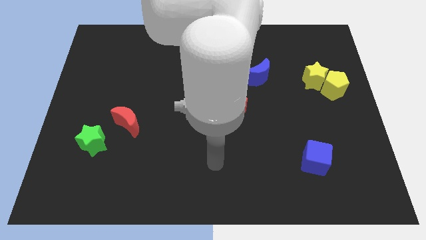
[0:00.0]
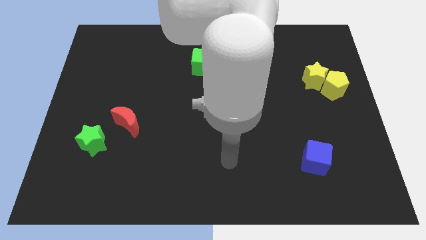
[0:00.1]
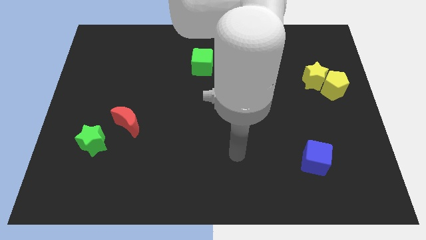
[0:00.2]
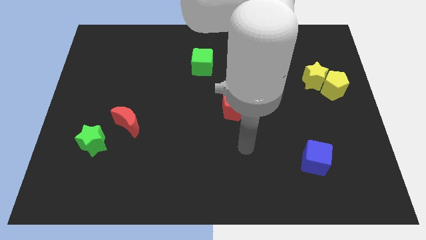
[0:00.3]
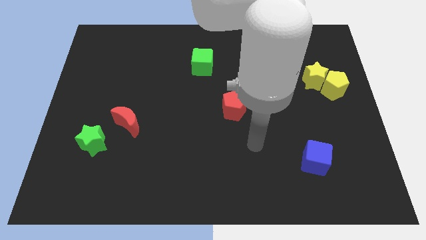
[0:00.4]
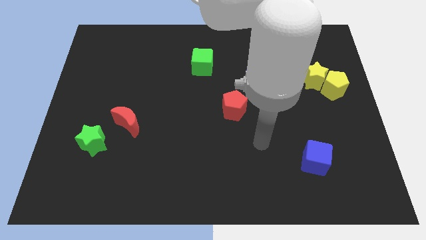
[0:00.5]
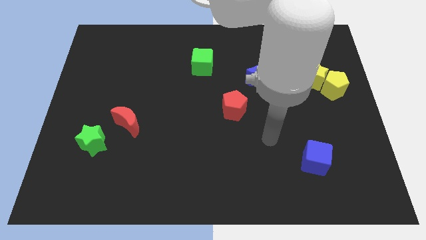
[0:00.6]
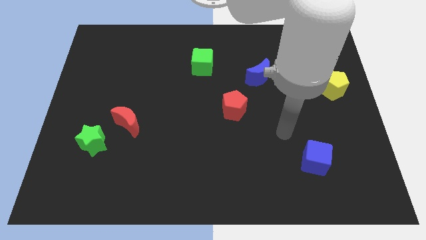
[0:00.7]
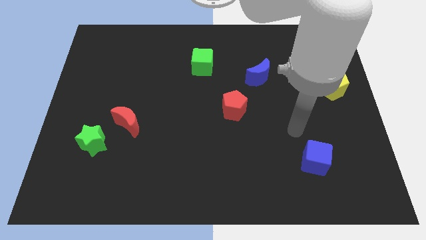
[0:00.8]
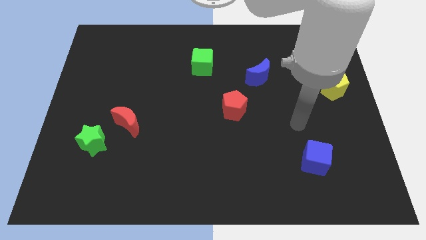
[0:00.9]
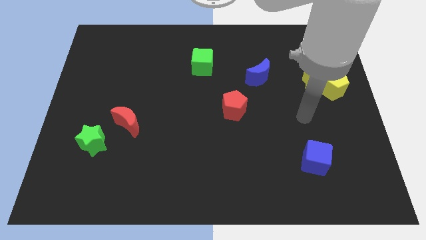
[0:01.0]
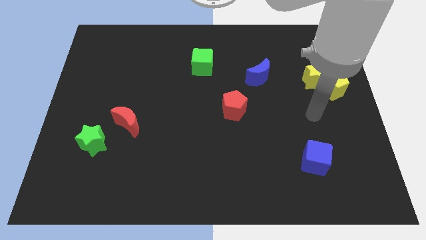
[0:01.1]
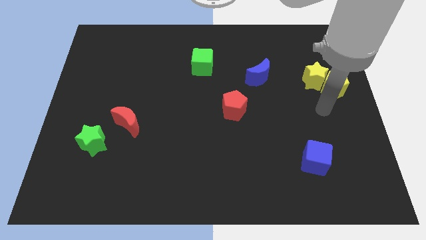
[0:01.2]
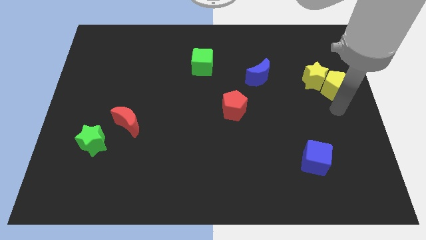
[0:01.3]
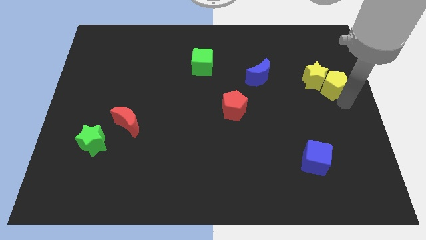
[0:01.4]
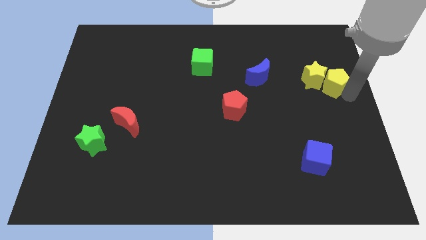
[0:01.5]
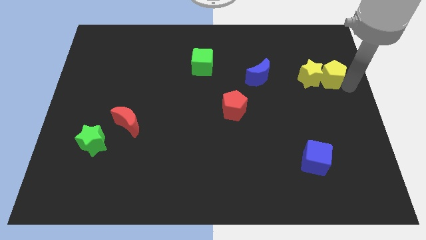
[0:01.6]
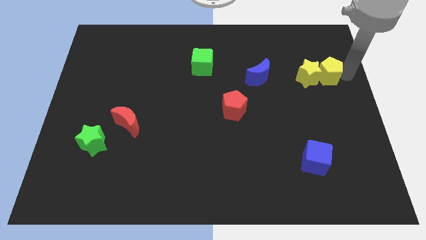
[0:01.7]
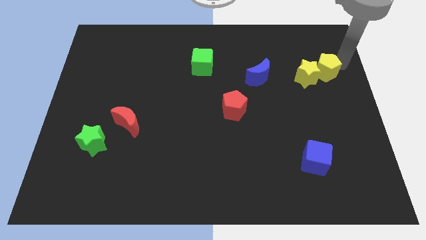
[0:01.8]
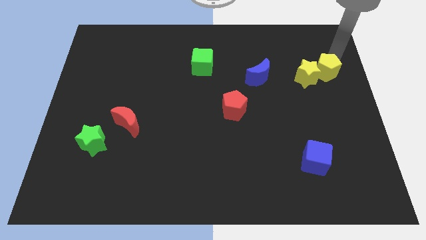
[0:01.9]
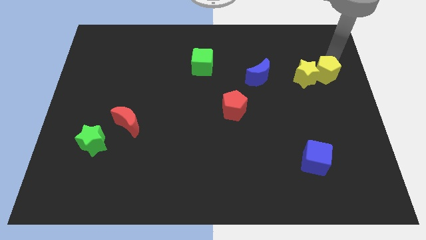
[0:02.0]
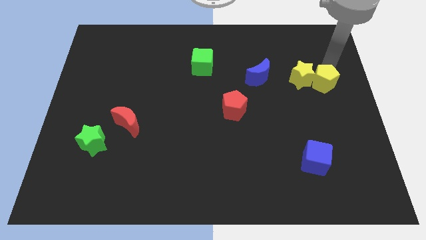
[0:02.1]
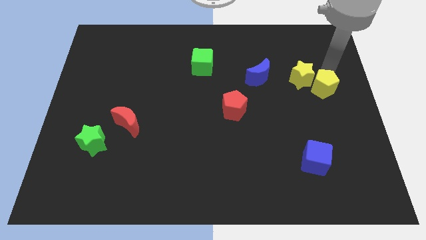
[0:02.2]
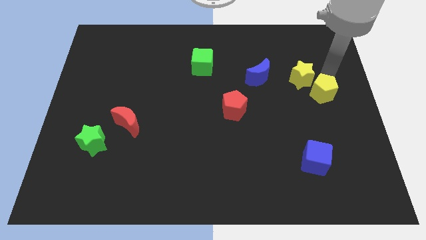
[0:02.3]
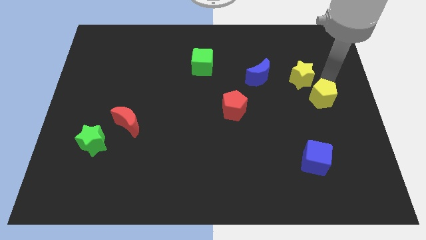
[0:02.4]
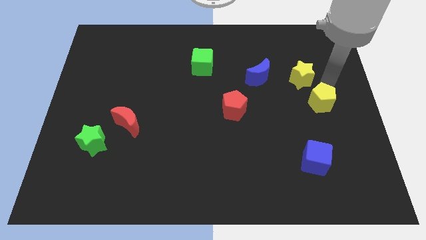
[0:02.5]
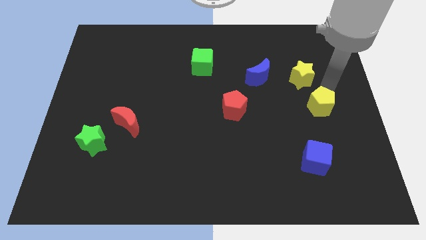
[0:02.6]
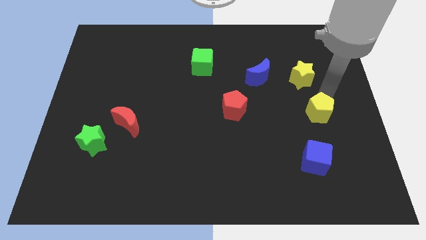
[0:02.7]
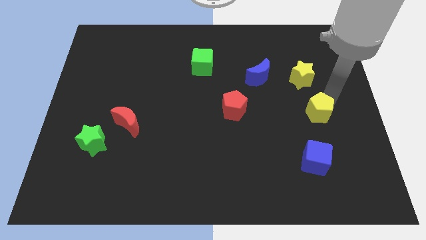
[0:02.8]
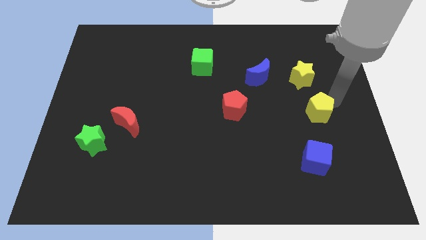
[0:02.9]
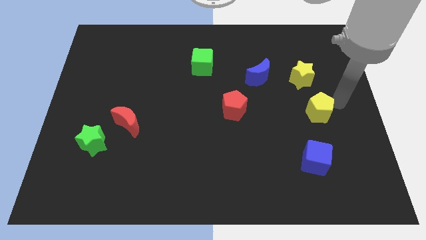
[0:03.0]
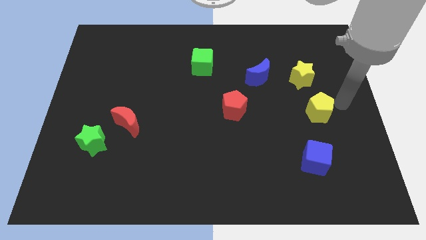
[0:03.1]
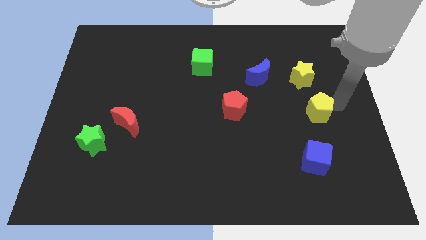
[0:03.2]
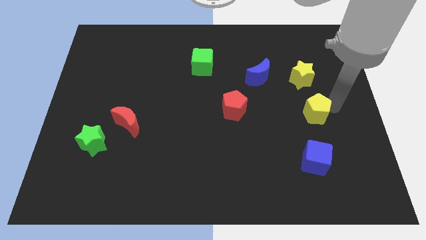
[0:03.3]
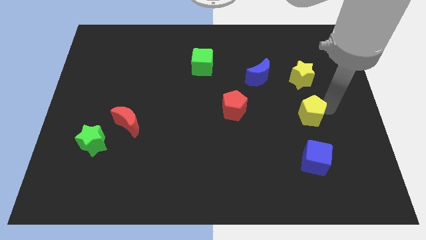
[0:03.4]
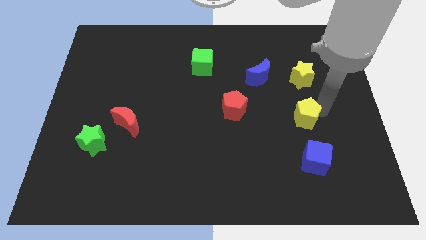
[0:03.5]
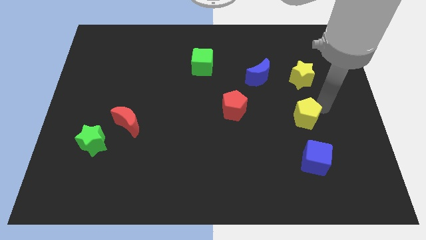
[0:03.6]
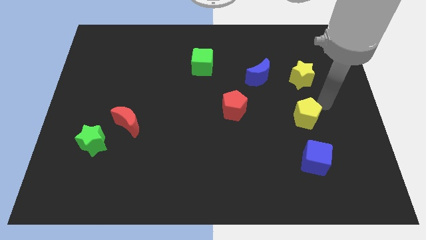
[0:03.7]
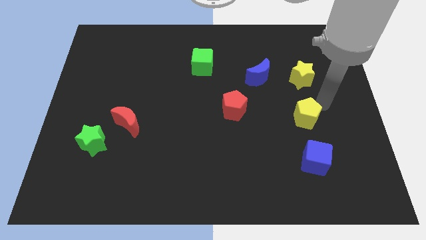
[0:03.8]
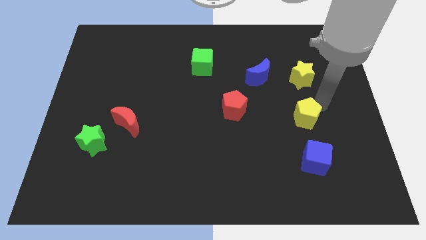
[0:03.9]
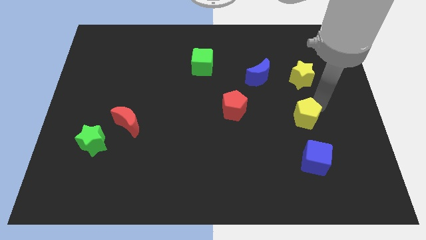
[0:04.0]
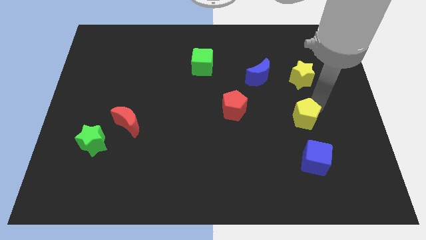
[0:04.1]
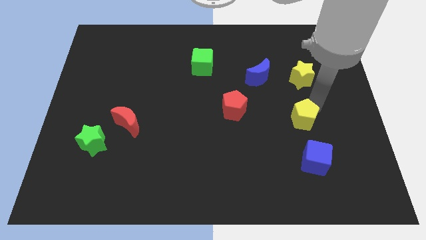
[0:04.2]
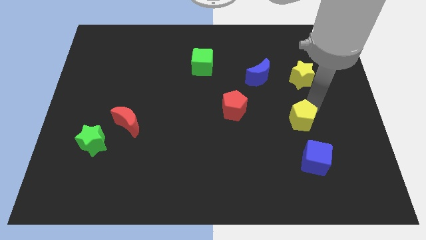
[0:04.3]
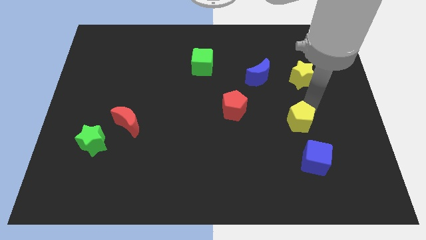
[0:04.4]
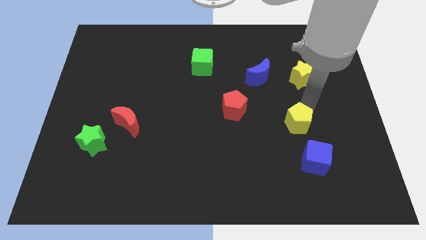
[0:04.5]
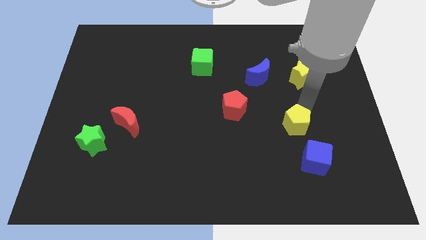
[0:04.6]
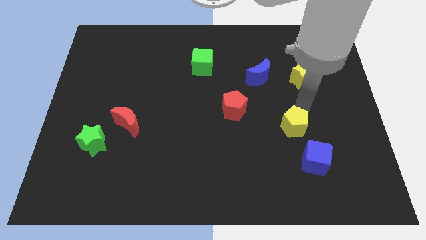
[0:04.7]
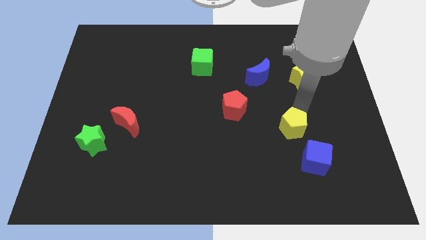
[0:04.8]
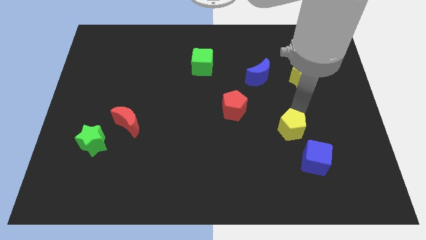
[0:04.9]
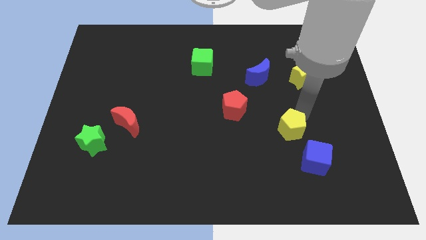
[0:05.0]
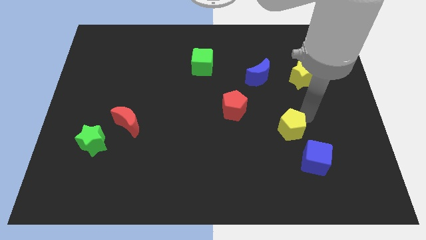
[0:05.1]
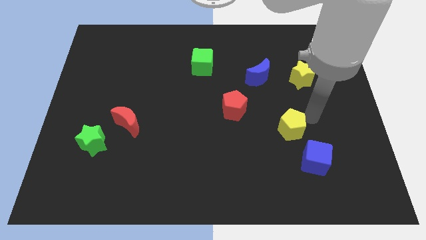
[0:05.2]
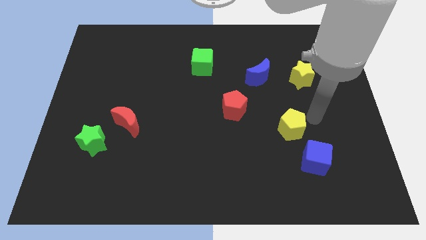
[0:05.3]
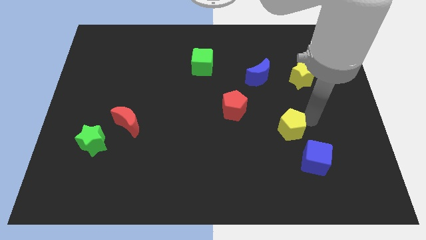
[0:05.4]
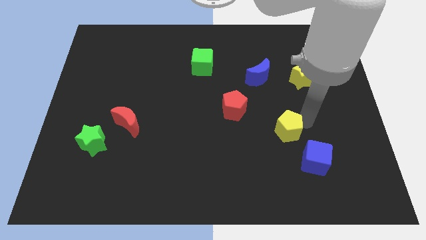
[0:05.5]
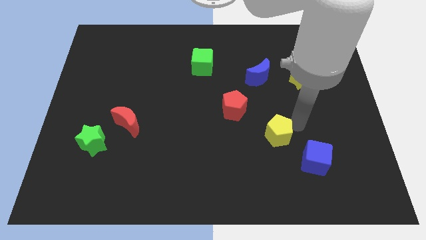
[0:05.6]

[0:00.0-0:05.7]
push the yellow pentagon down and then left

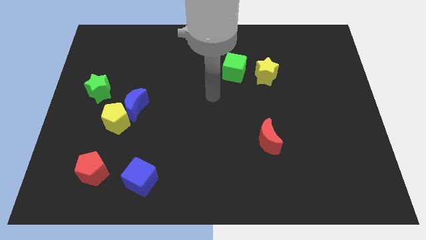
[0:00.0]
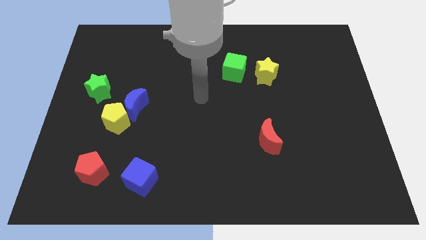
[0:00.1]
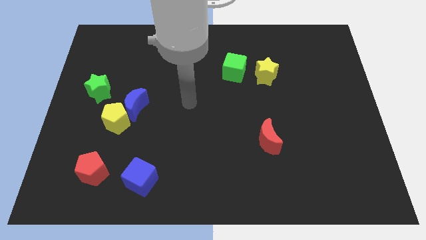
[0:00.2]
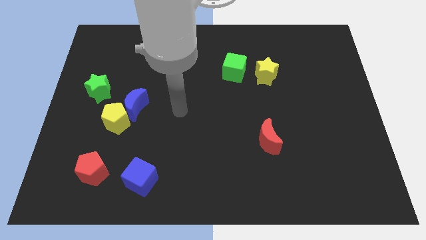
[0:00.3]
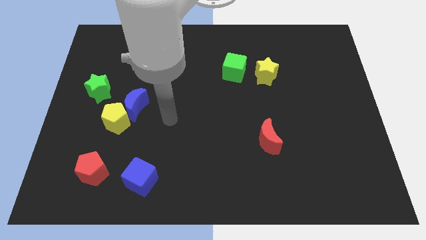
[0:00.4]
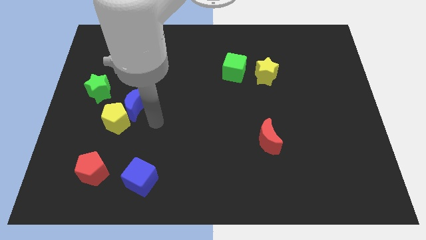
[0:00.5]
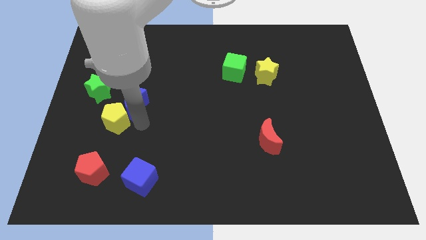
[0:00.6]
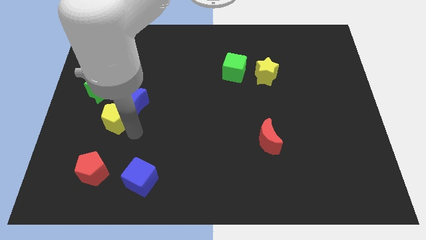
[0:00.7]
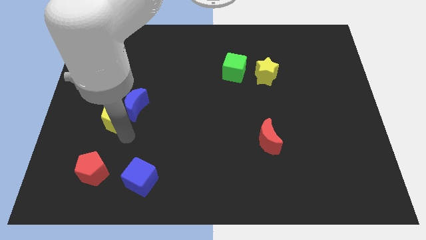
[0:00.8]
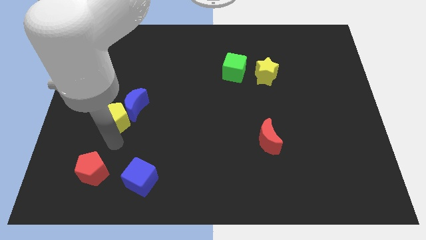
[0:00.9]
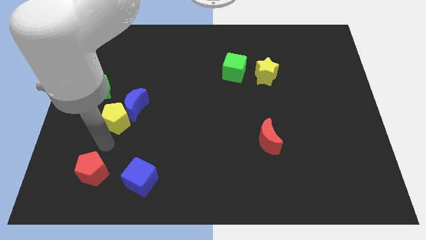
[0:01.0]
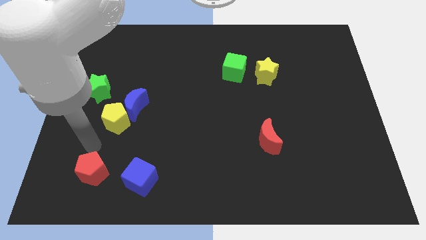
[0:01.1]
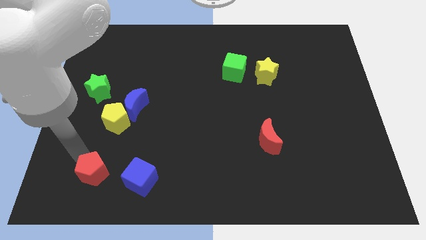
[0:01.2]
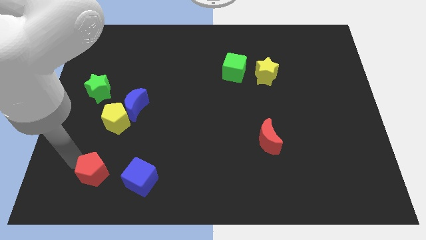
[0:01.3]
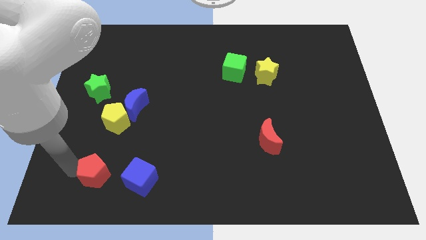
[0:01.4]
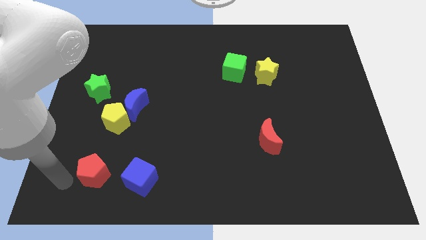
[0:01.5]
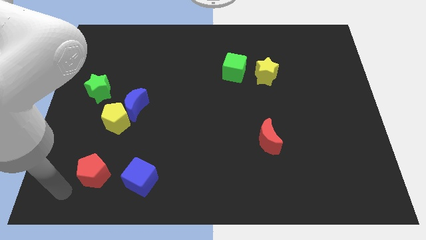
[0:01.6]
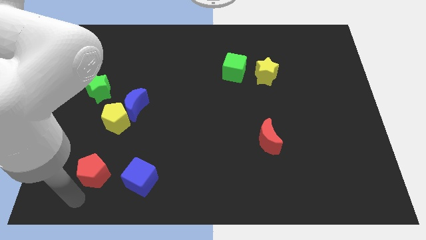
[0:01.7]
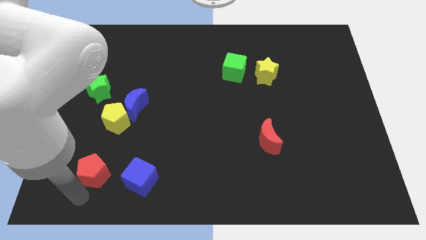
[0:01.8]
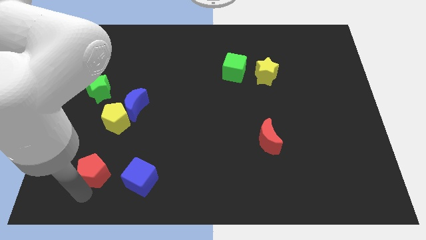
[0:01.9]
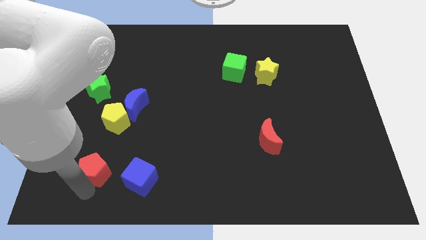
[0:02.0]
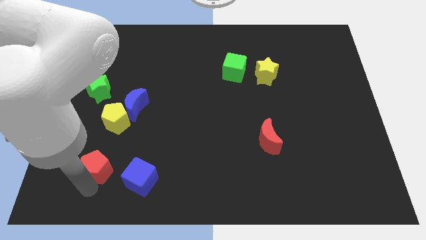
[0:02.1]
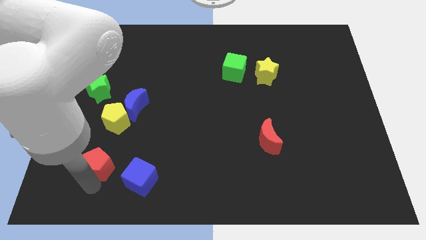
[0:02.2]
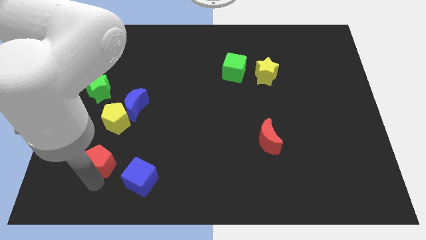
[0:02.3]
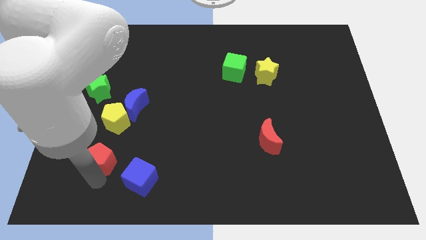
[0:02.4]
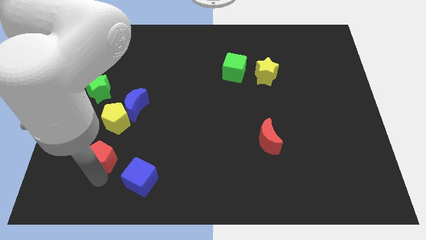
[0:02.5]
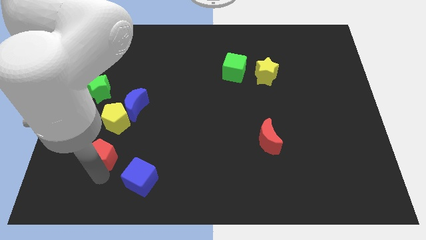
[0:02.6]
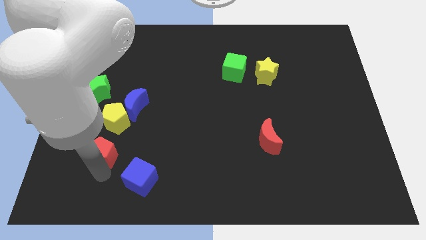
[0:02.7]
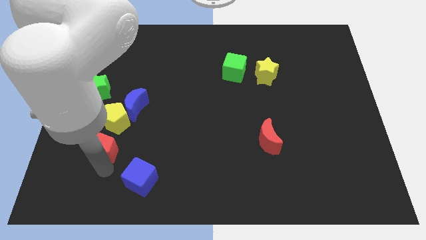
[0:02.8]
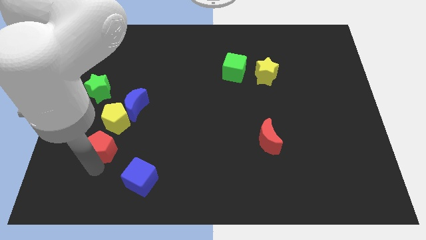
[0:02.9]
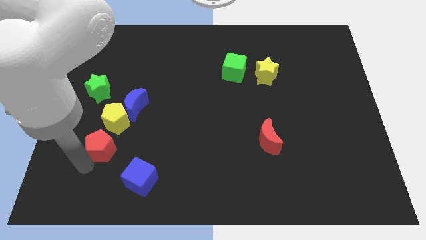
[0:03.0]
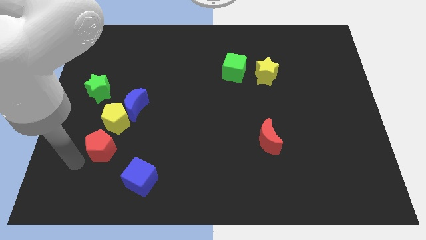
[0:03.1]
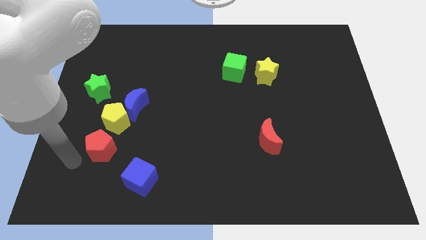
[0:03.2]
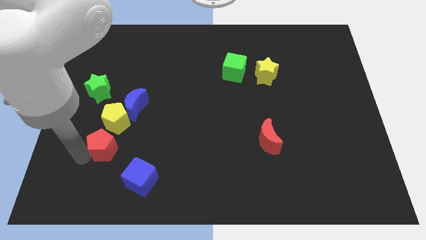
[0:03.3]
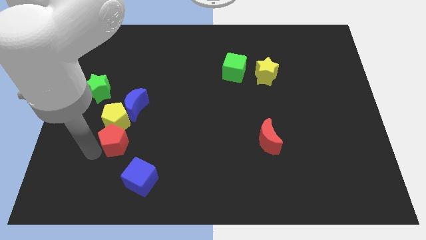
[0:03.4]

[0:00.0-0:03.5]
slightly slide the red pentagon upwards and then right
